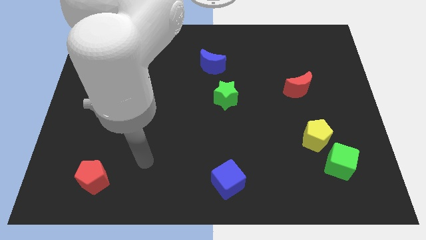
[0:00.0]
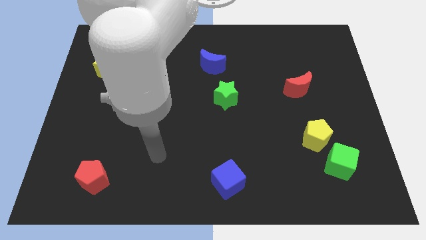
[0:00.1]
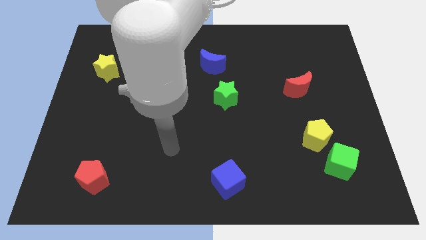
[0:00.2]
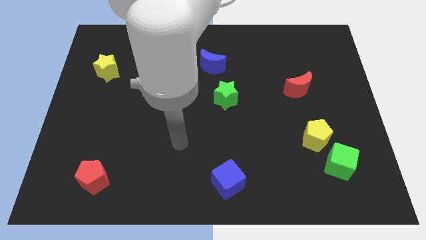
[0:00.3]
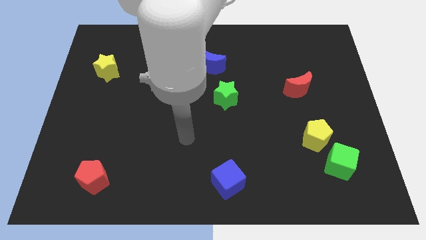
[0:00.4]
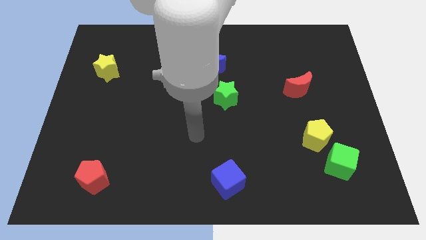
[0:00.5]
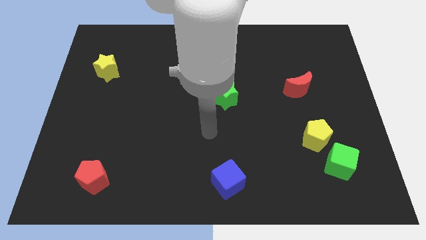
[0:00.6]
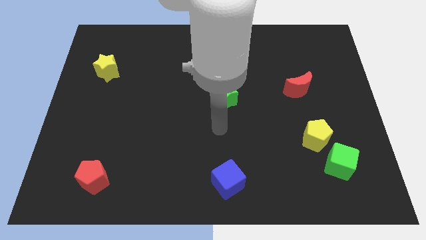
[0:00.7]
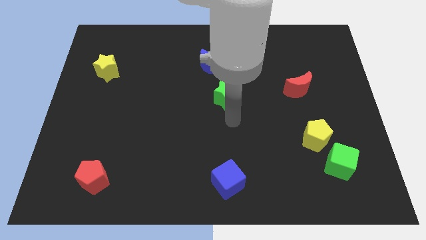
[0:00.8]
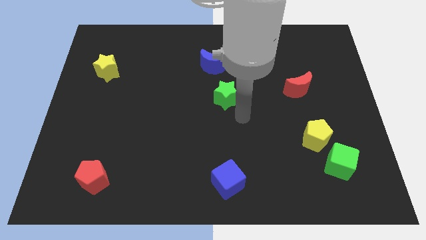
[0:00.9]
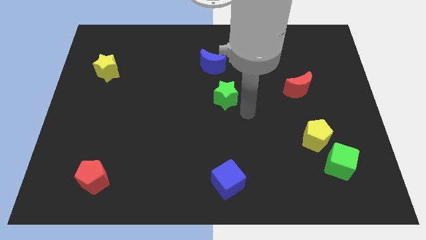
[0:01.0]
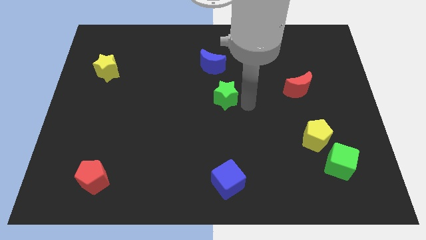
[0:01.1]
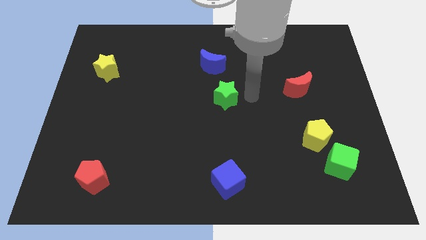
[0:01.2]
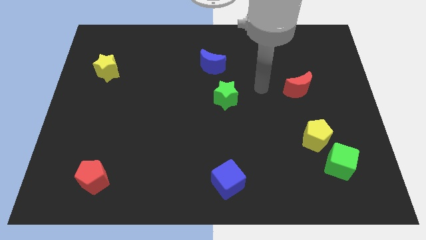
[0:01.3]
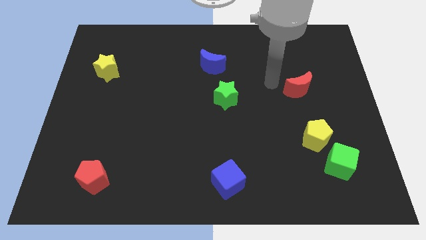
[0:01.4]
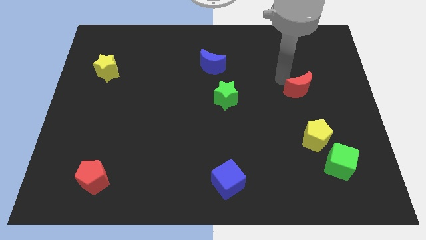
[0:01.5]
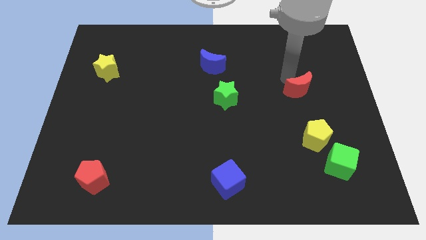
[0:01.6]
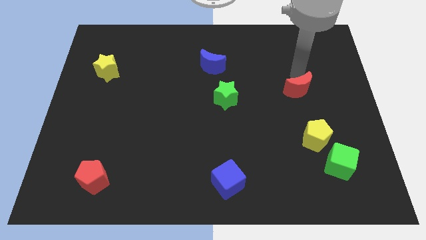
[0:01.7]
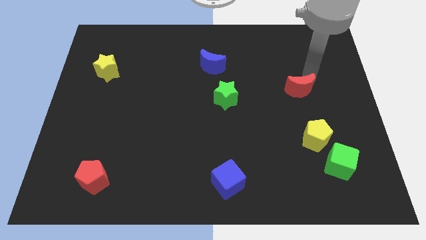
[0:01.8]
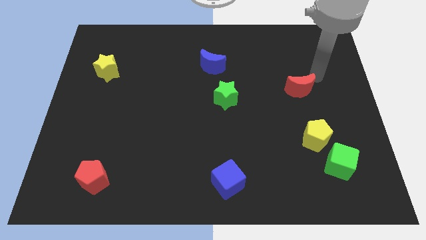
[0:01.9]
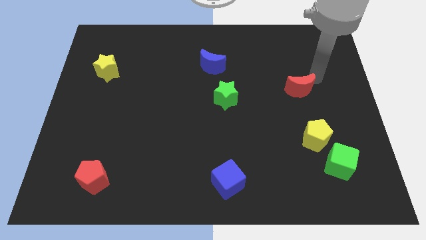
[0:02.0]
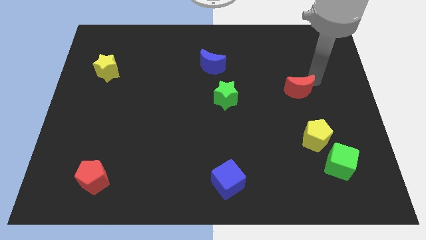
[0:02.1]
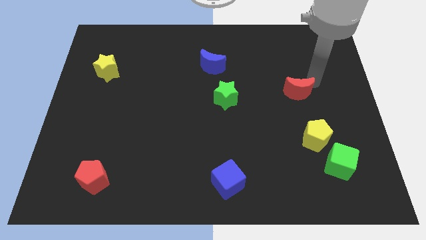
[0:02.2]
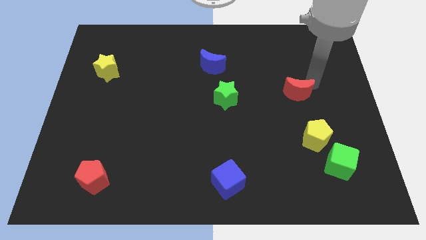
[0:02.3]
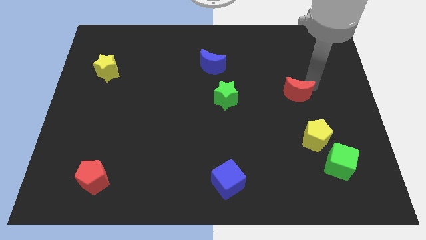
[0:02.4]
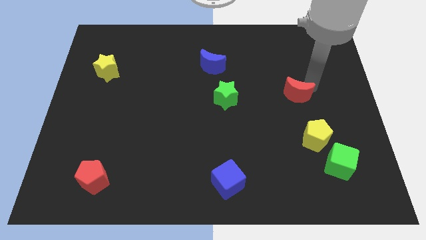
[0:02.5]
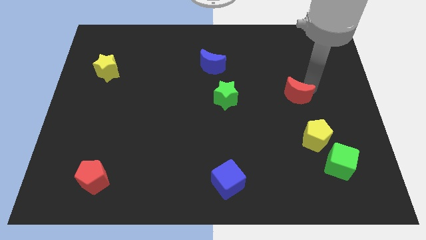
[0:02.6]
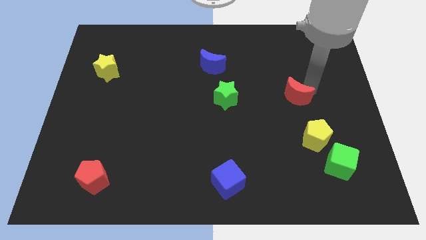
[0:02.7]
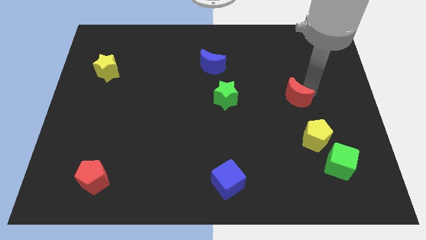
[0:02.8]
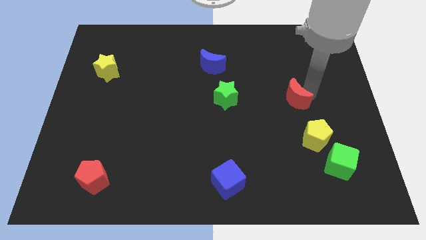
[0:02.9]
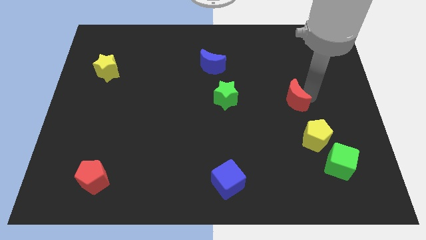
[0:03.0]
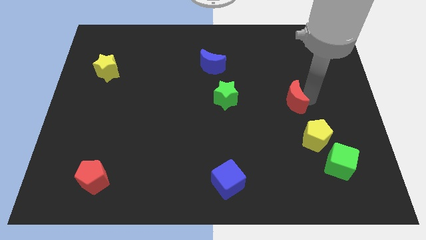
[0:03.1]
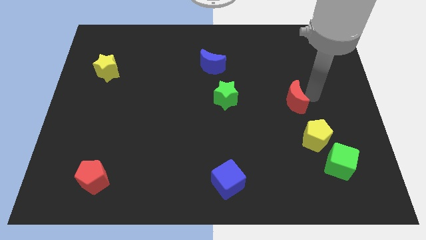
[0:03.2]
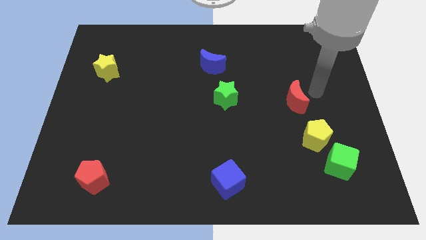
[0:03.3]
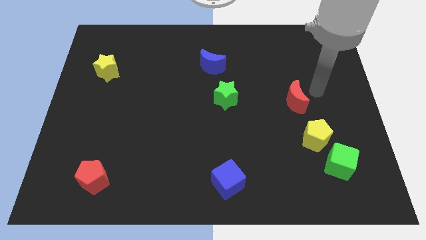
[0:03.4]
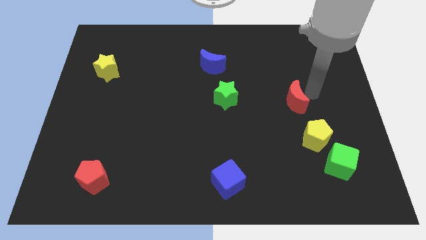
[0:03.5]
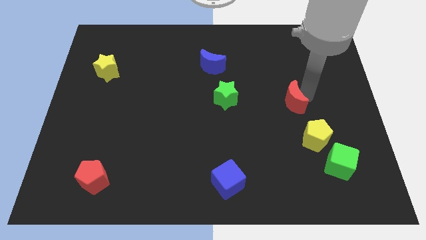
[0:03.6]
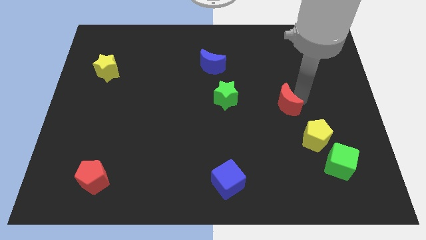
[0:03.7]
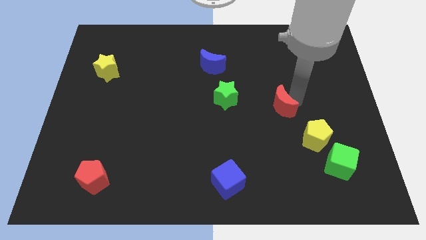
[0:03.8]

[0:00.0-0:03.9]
slightly move the red moon down and then left

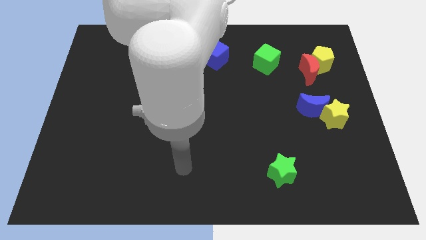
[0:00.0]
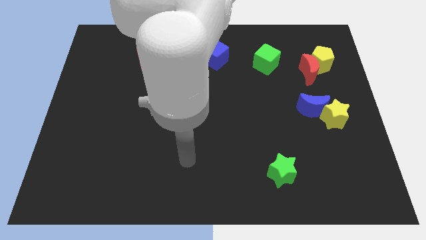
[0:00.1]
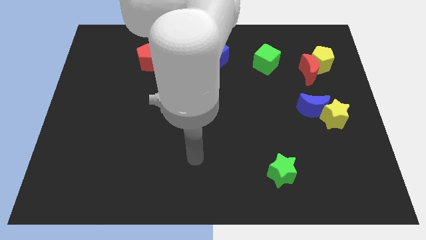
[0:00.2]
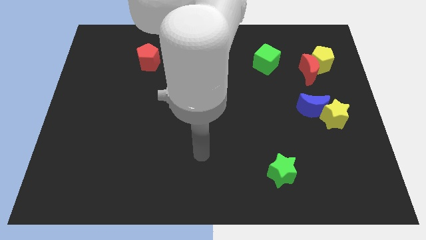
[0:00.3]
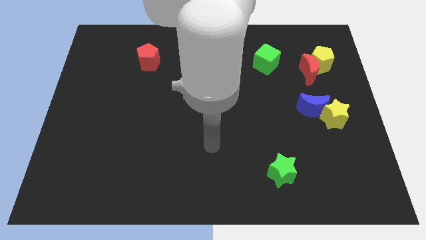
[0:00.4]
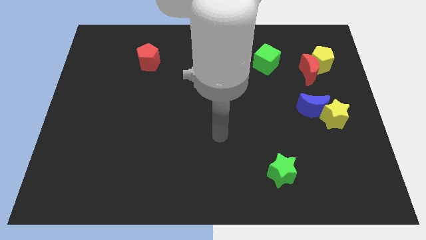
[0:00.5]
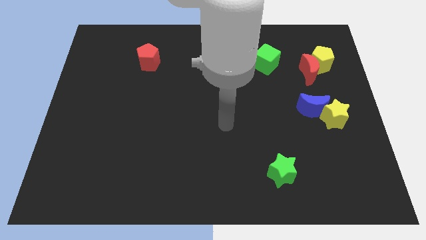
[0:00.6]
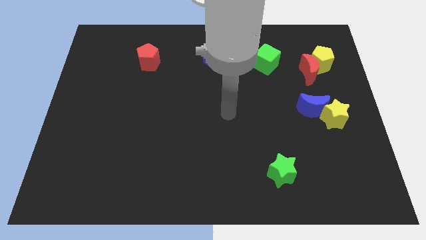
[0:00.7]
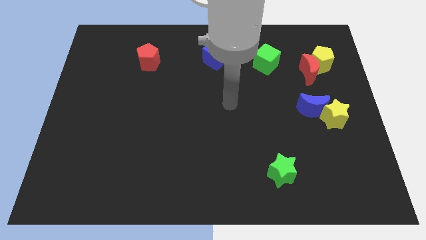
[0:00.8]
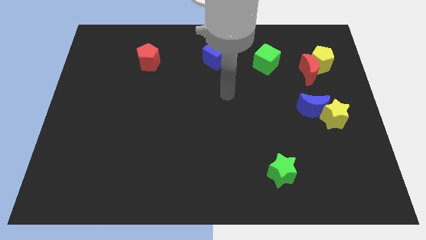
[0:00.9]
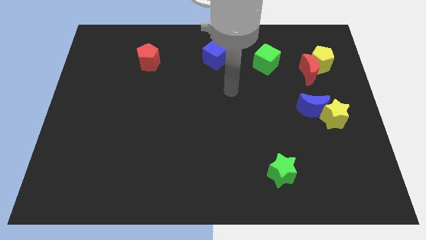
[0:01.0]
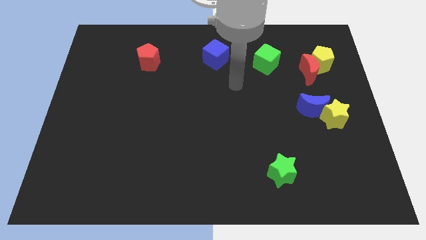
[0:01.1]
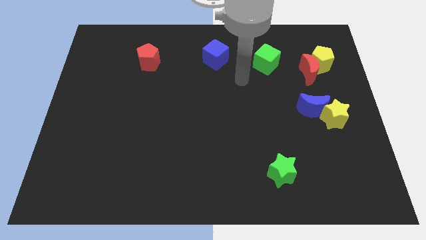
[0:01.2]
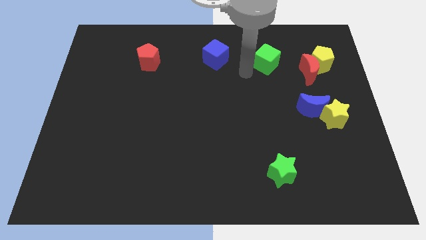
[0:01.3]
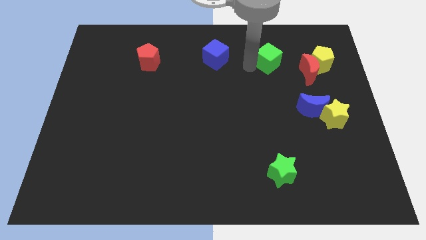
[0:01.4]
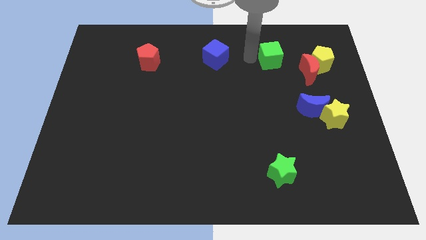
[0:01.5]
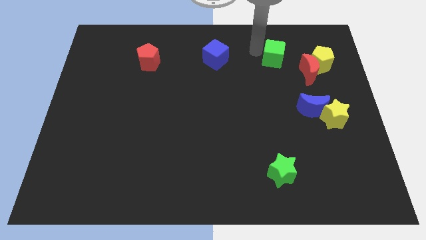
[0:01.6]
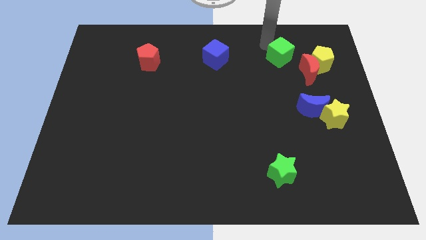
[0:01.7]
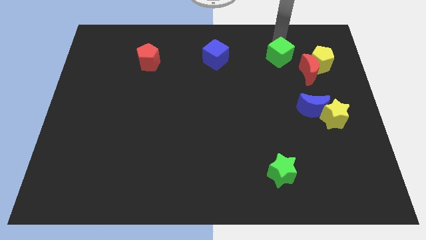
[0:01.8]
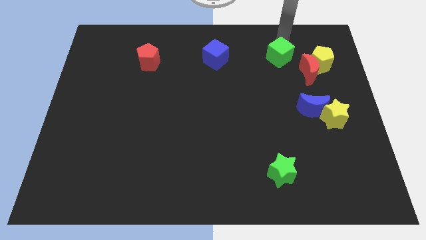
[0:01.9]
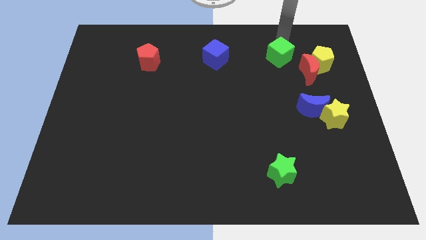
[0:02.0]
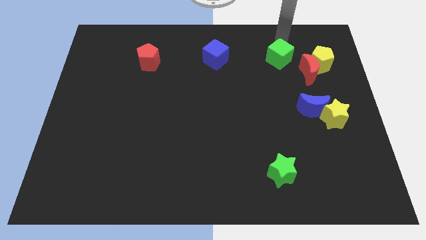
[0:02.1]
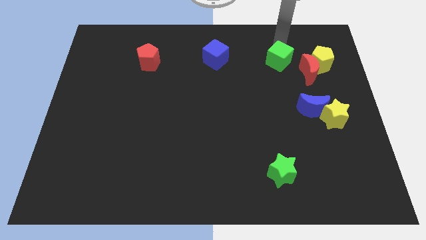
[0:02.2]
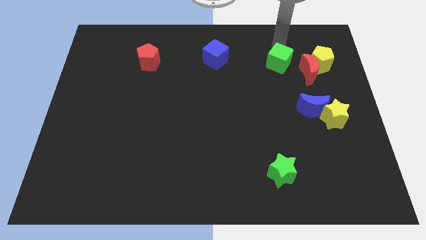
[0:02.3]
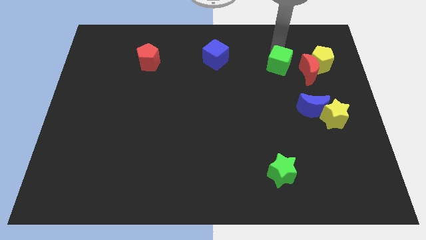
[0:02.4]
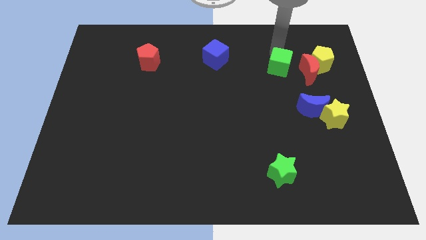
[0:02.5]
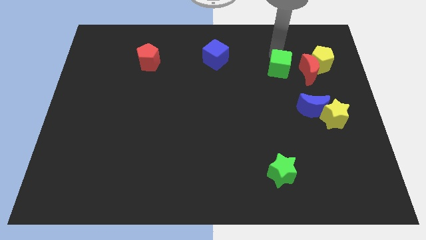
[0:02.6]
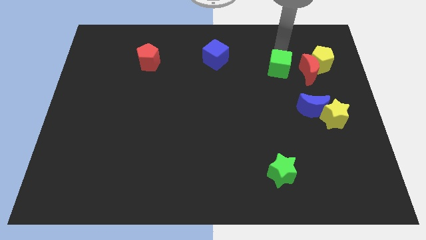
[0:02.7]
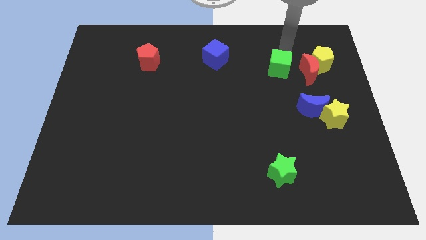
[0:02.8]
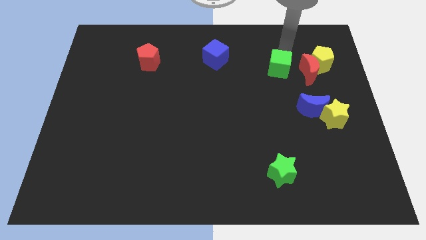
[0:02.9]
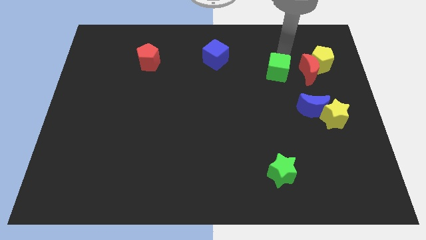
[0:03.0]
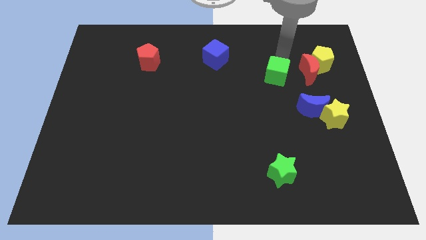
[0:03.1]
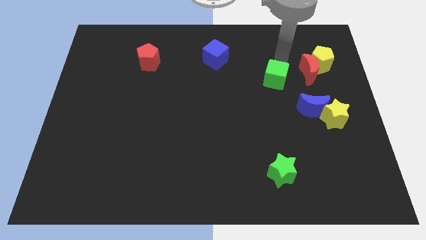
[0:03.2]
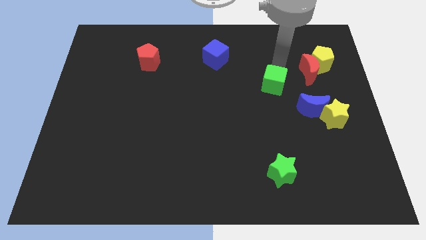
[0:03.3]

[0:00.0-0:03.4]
slightly move the green cube downwards

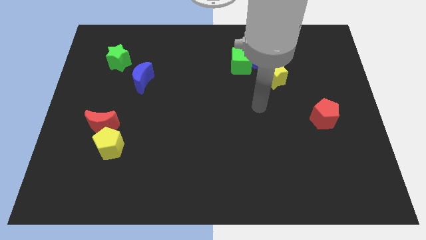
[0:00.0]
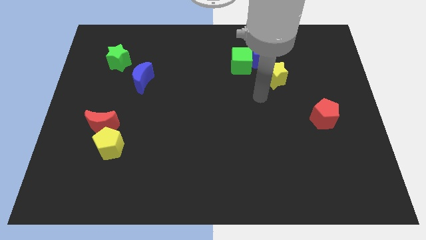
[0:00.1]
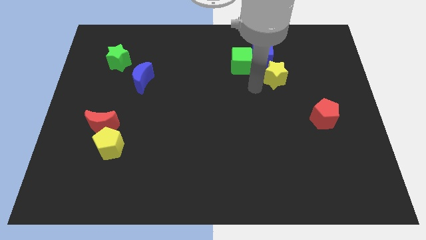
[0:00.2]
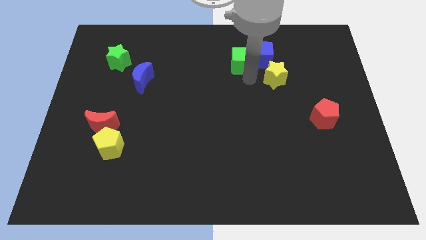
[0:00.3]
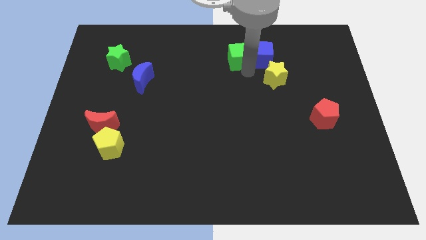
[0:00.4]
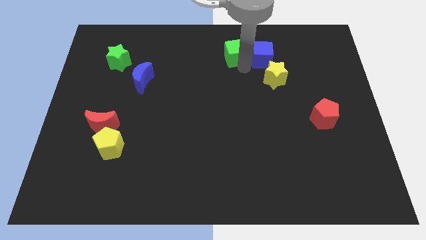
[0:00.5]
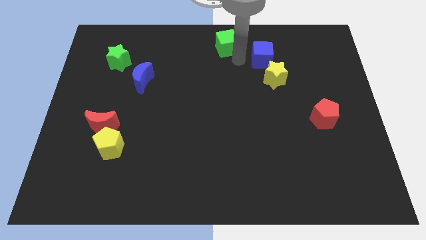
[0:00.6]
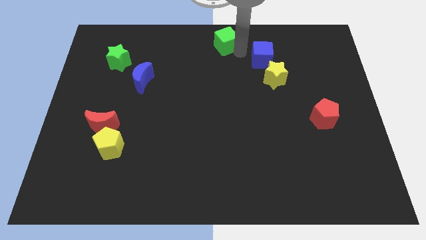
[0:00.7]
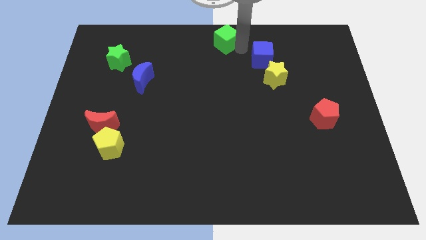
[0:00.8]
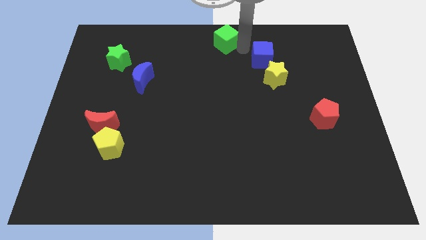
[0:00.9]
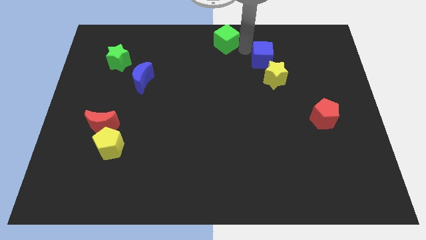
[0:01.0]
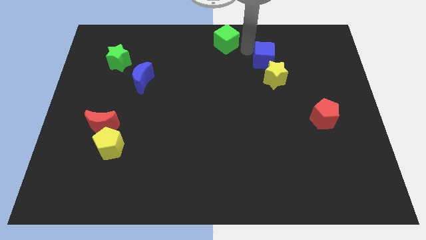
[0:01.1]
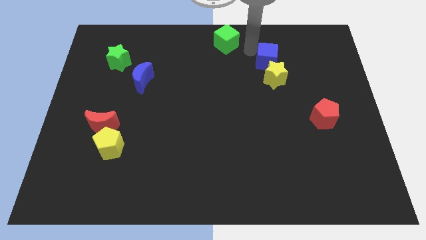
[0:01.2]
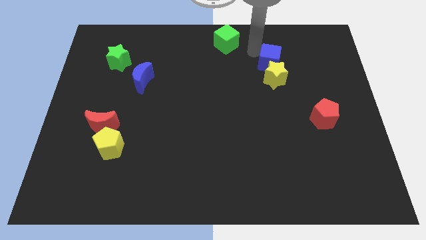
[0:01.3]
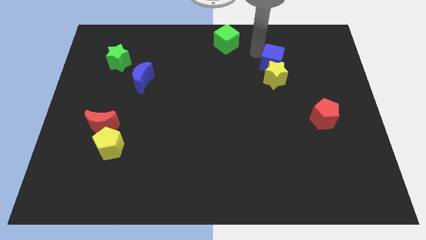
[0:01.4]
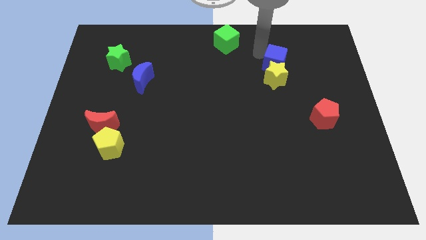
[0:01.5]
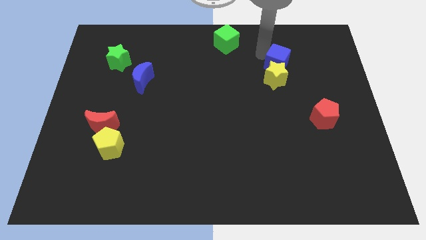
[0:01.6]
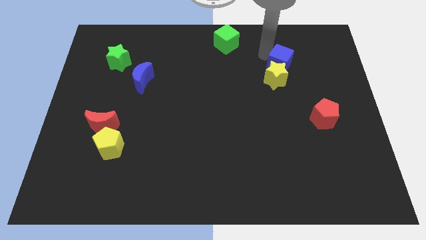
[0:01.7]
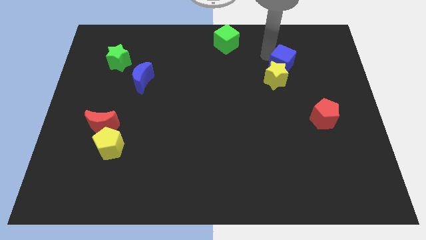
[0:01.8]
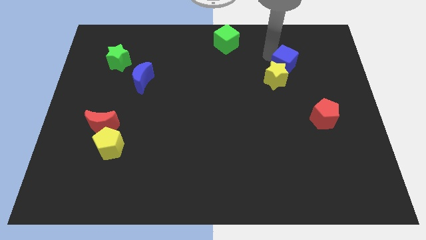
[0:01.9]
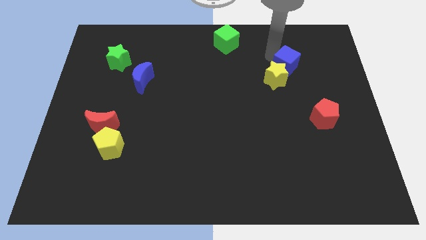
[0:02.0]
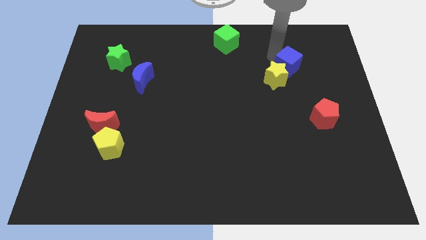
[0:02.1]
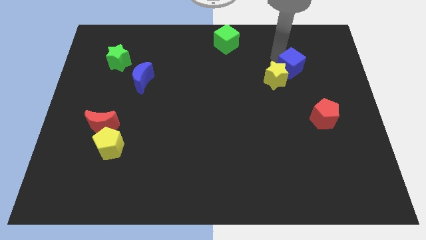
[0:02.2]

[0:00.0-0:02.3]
push the blue cube slightly down and to the right diagonally
